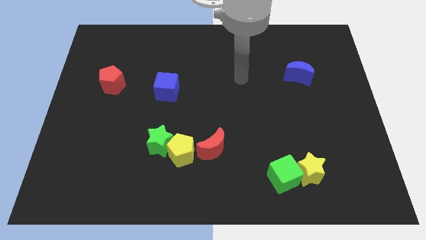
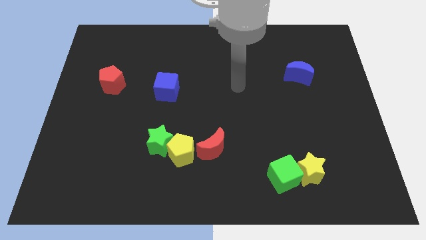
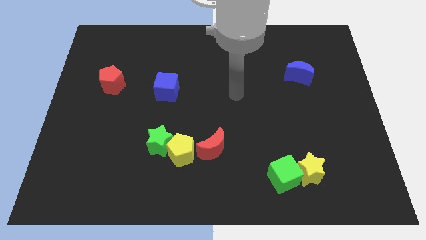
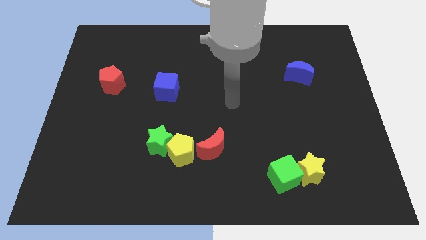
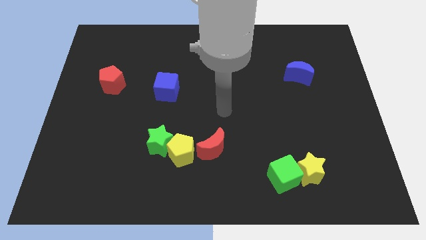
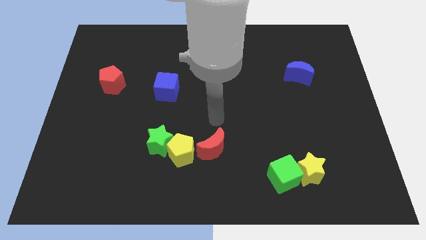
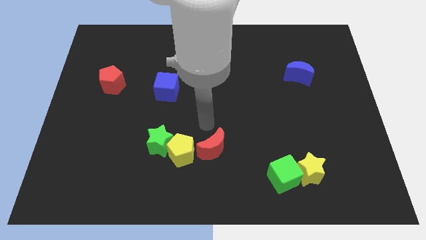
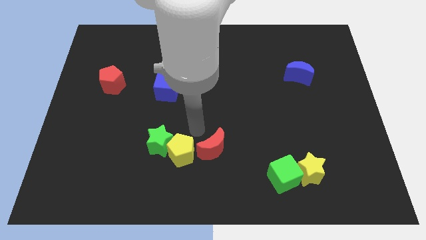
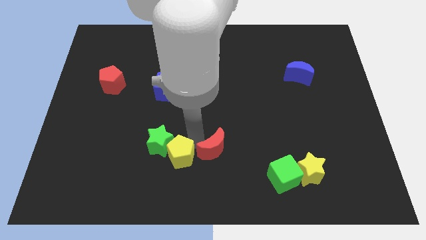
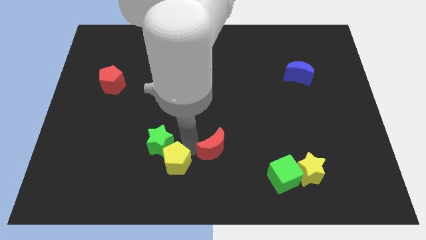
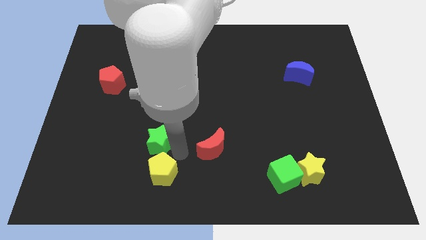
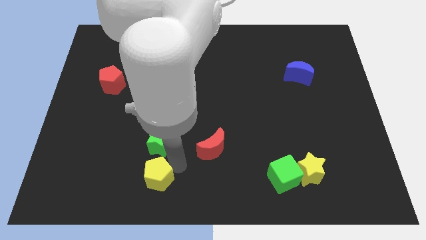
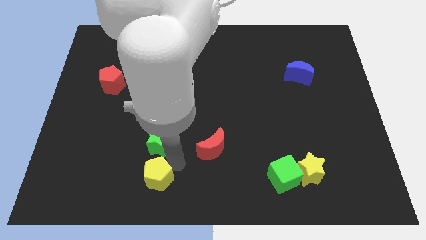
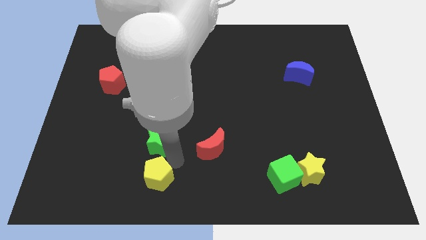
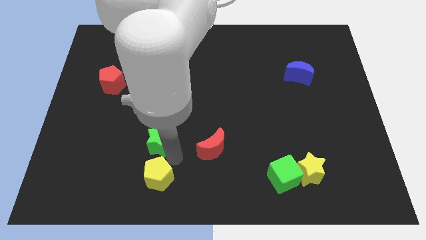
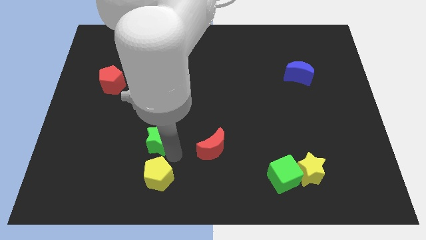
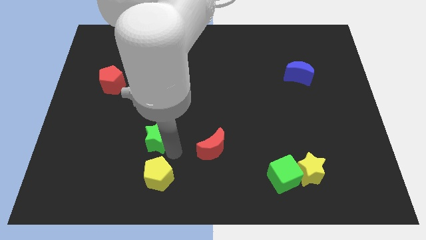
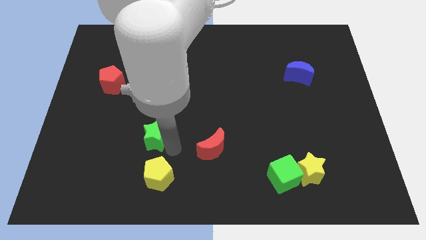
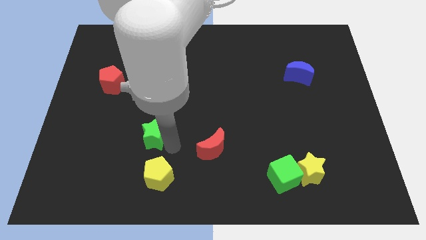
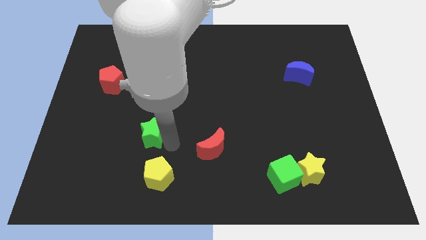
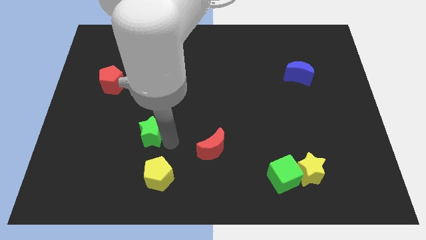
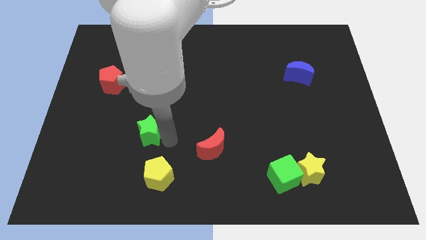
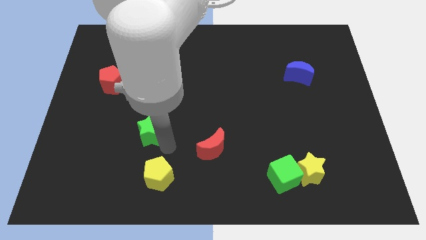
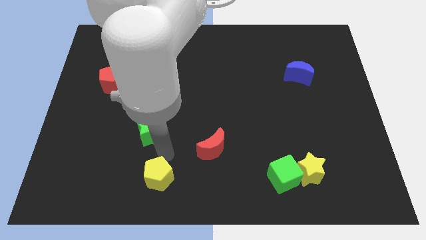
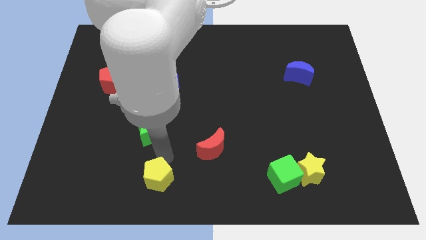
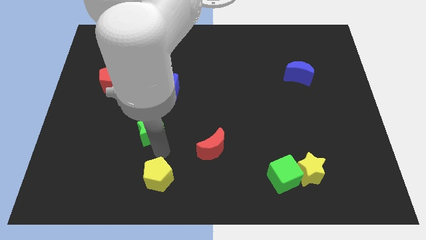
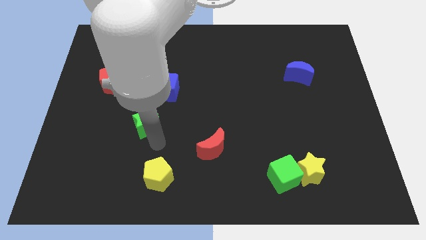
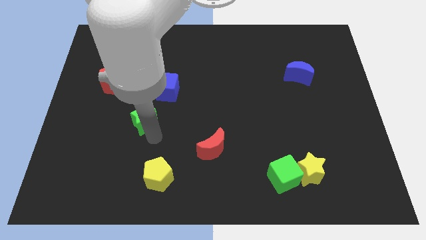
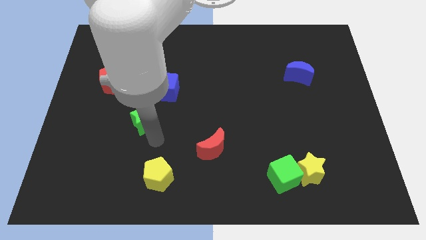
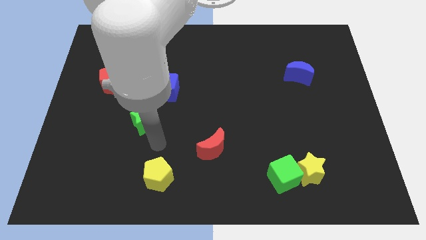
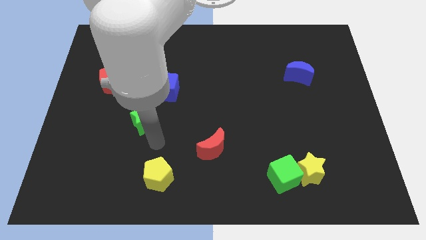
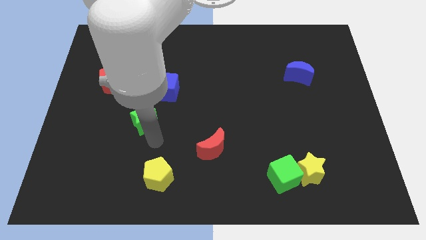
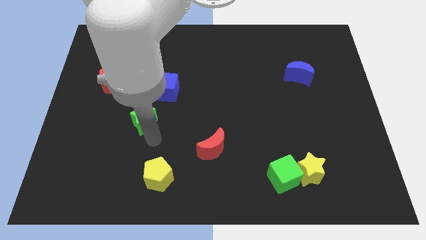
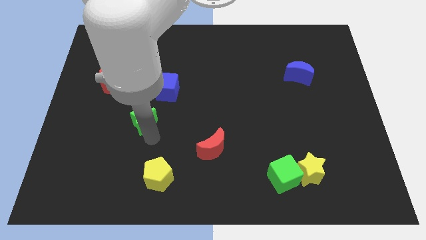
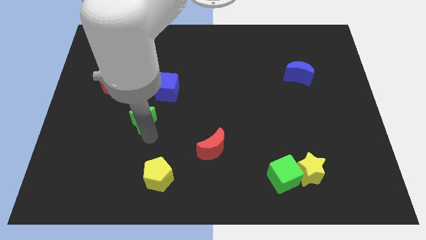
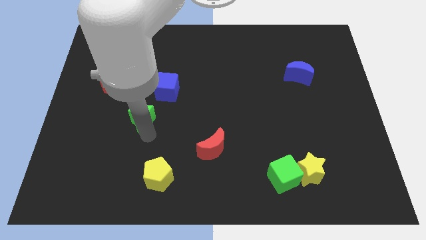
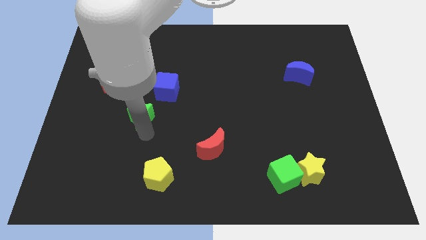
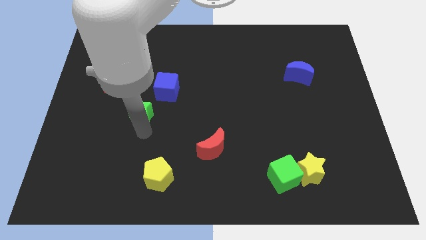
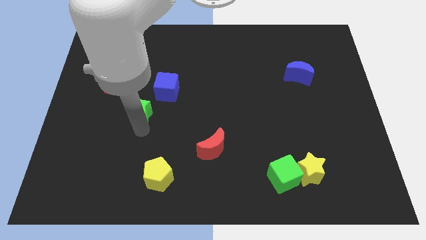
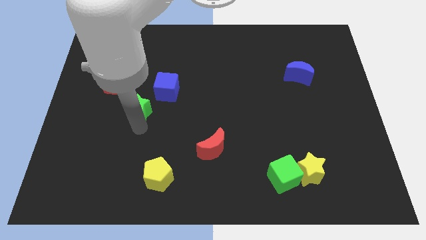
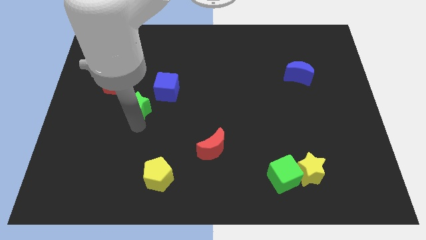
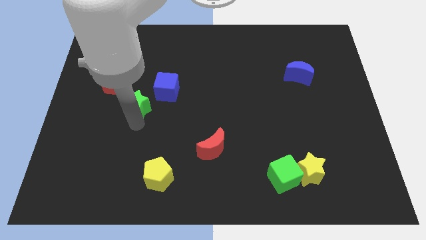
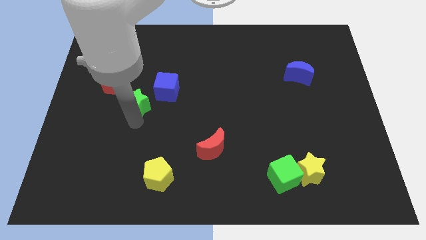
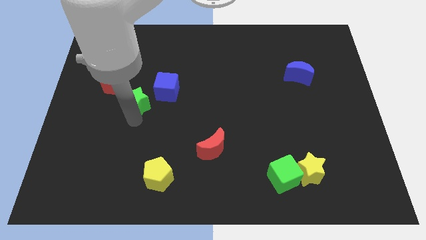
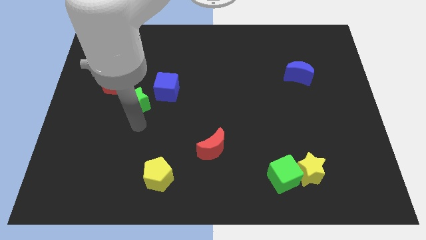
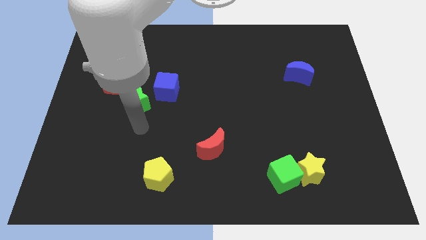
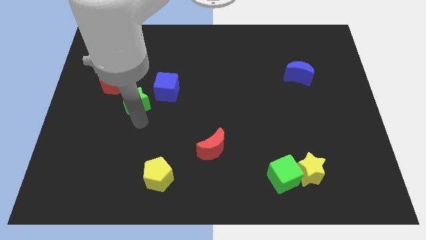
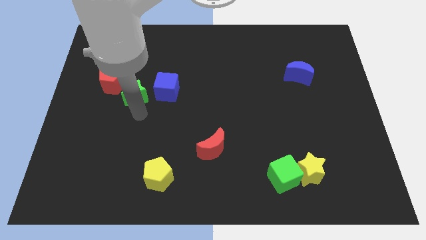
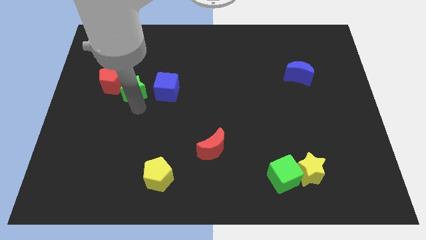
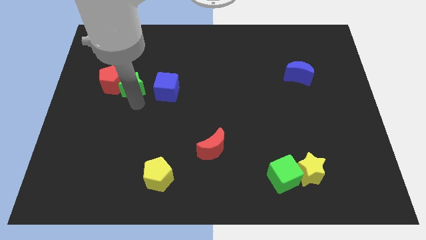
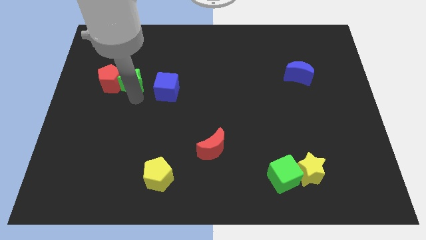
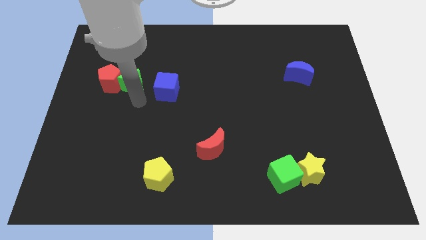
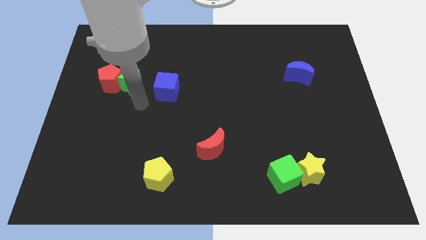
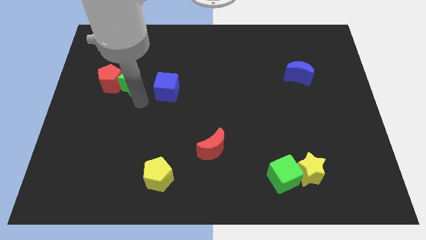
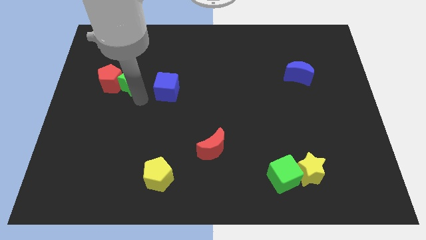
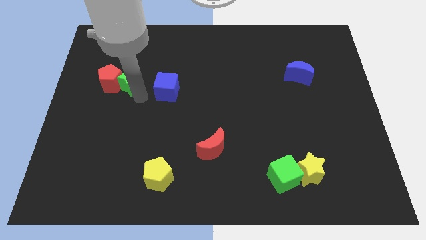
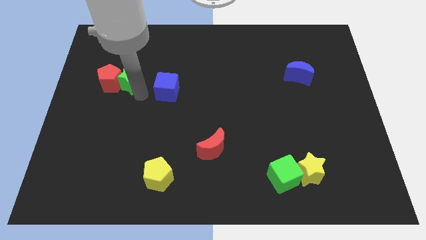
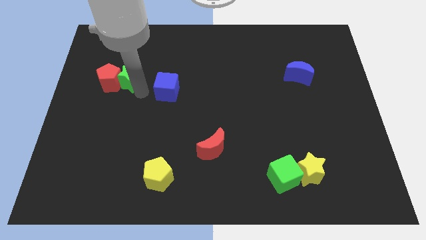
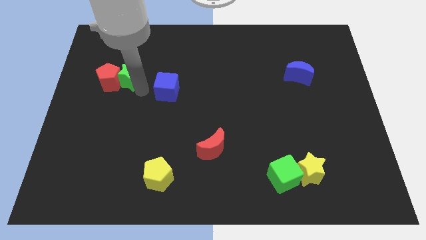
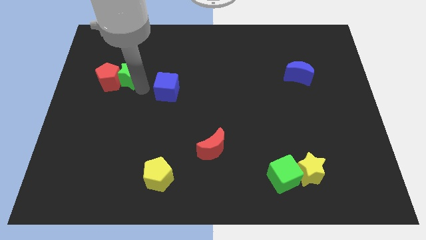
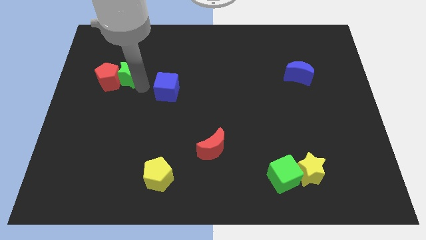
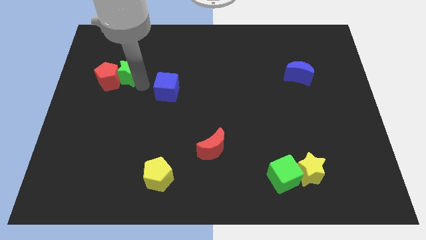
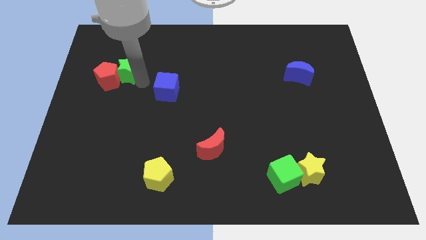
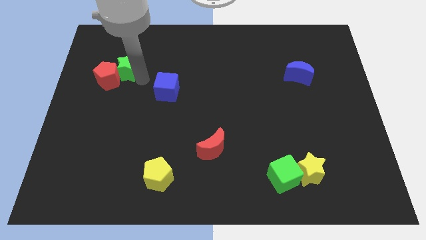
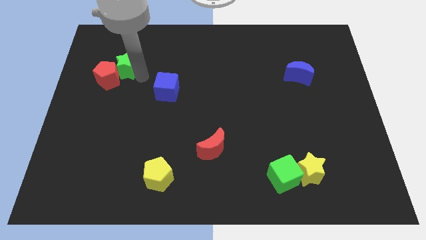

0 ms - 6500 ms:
put the green star to the top of the red pentagon

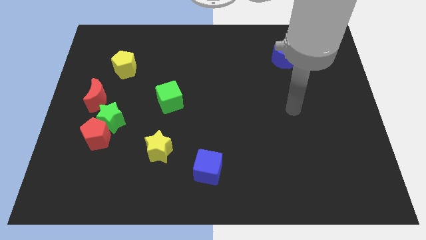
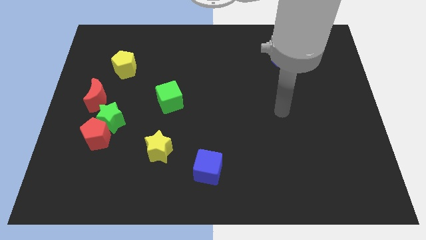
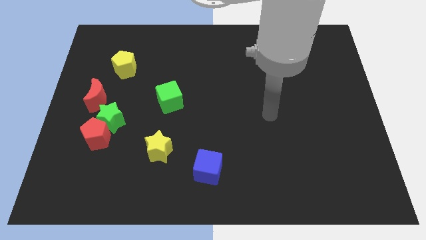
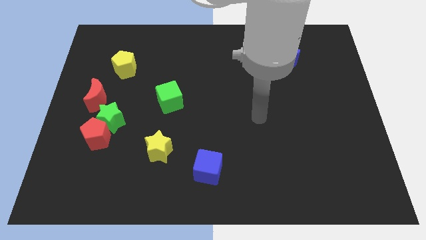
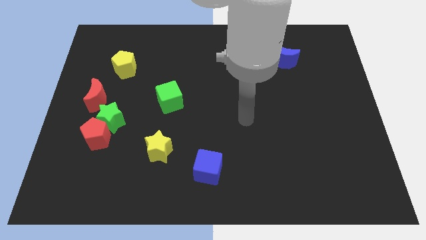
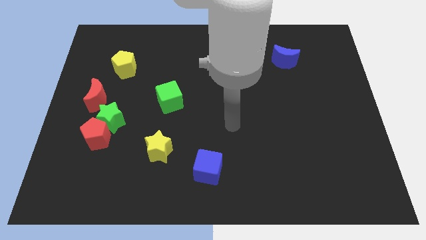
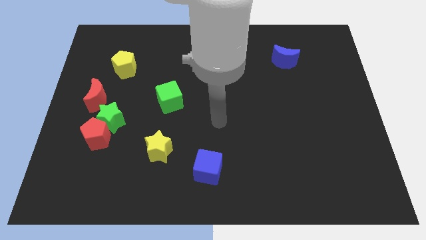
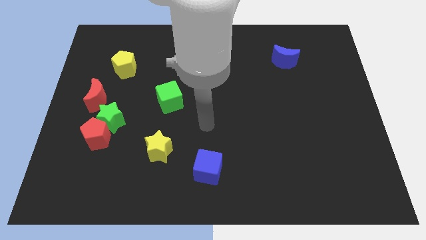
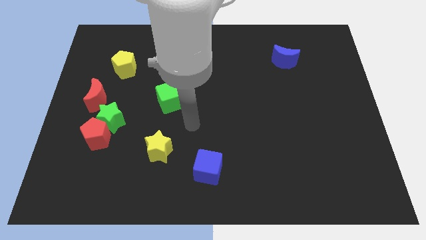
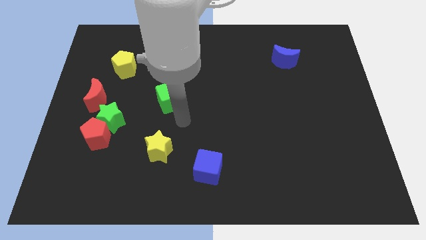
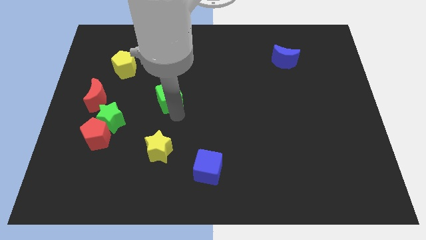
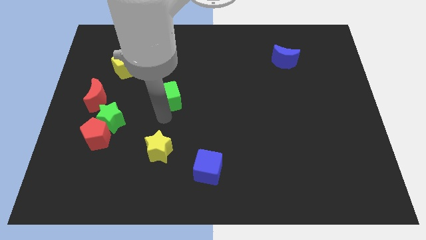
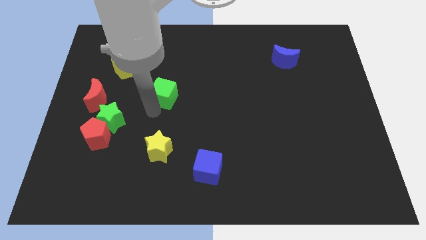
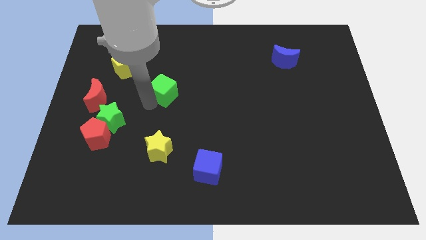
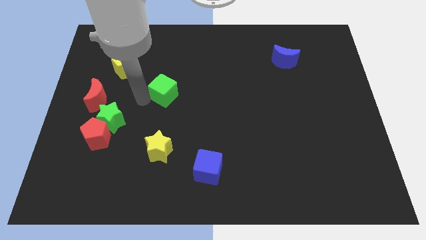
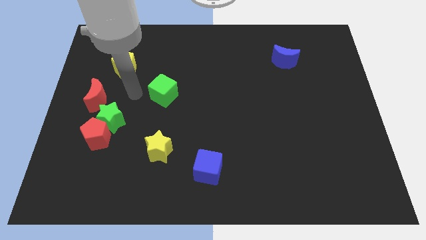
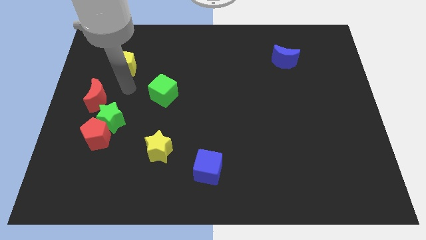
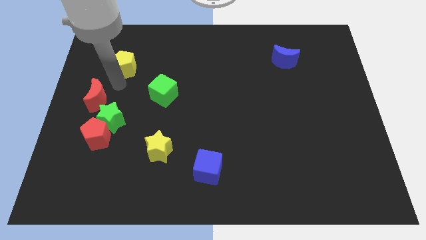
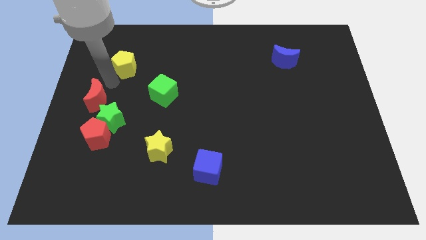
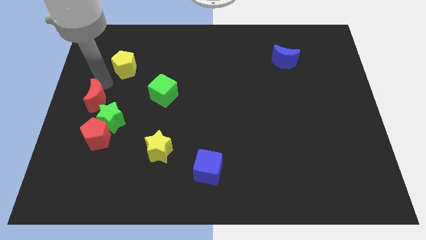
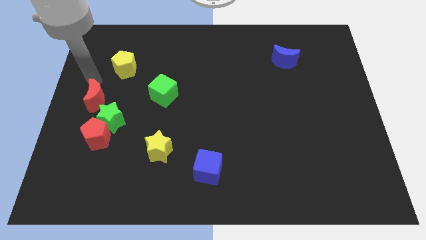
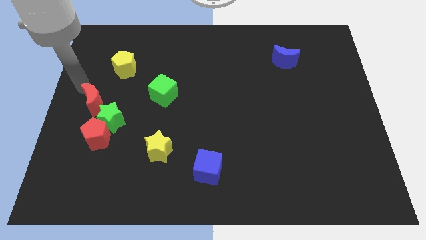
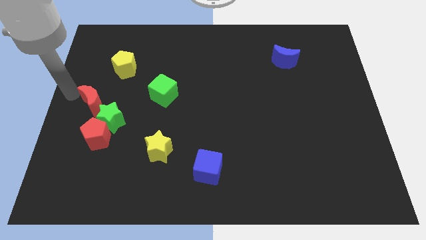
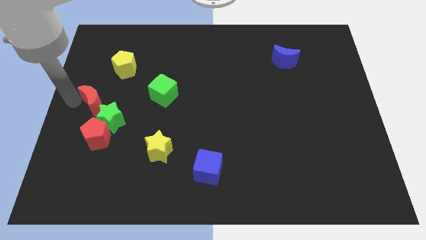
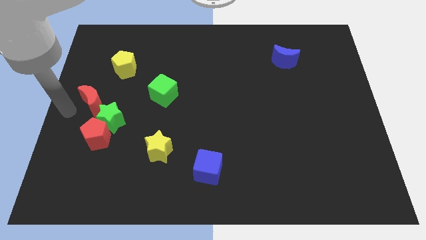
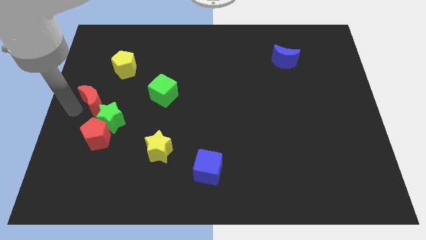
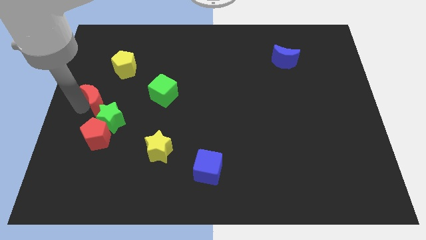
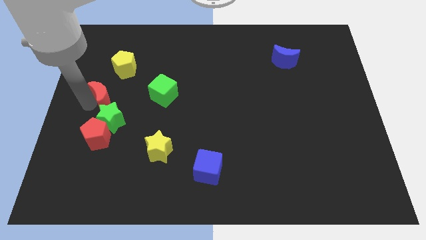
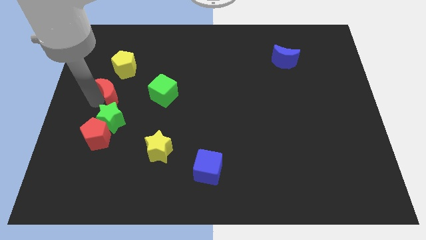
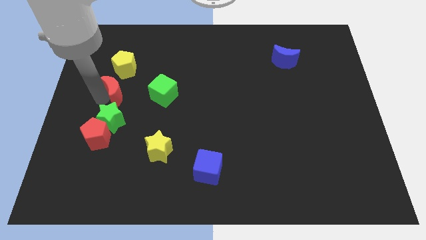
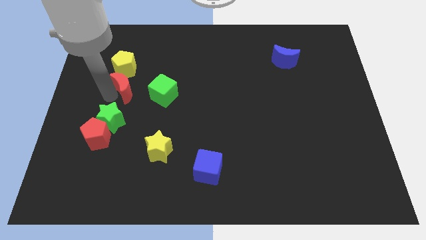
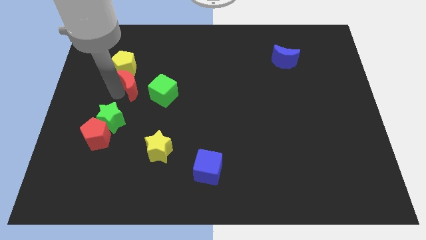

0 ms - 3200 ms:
move the red moon to the top left of the green cube
